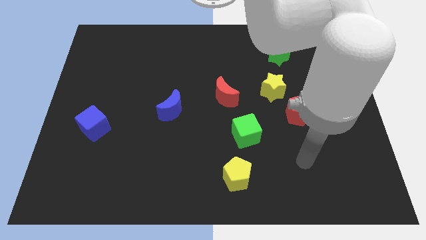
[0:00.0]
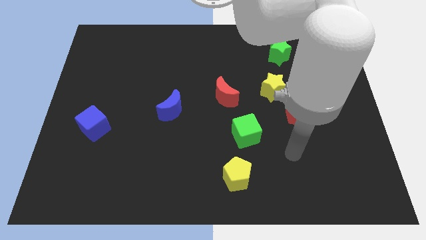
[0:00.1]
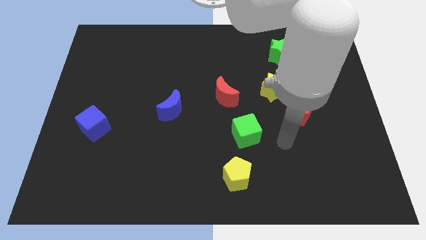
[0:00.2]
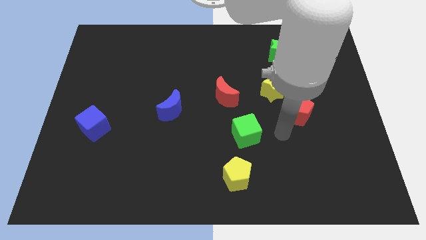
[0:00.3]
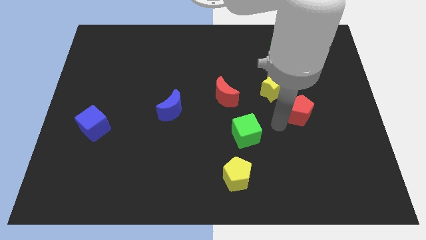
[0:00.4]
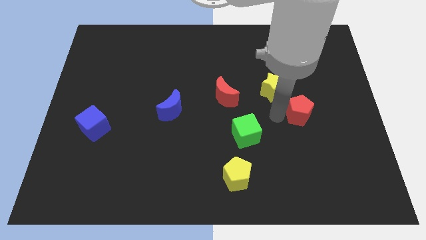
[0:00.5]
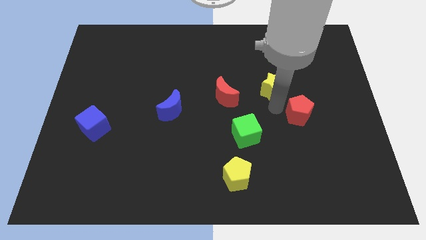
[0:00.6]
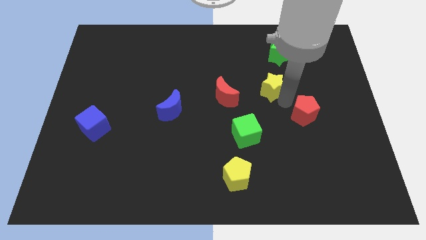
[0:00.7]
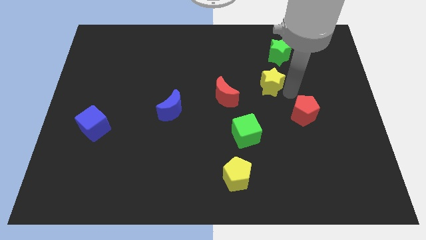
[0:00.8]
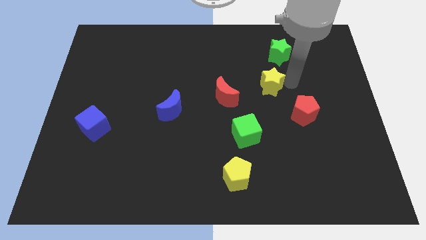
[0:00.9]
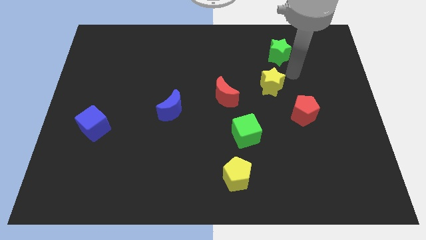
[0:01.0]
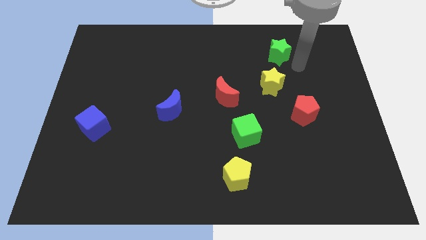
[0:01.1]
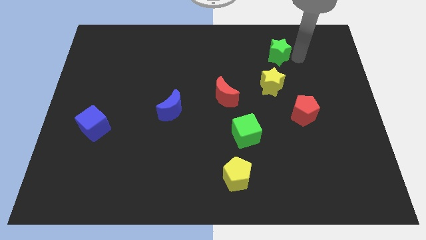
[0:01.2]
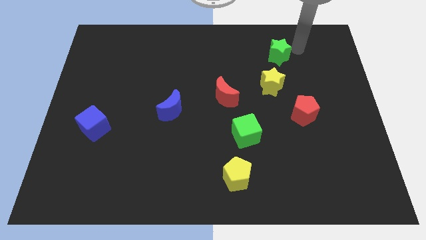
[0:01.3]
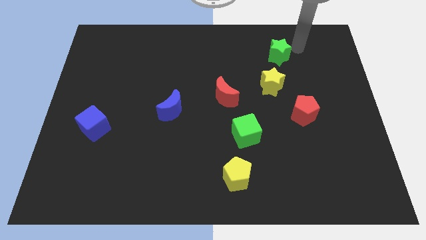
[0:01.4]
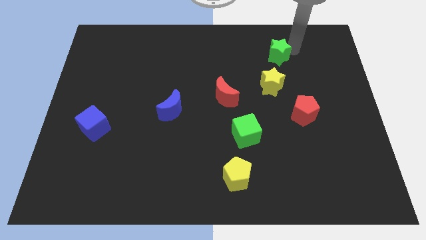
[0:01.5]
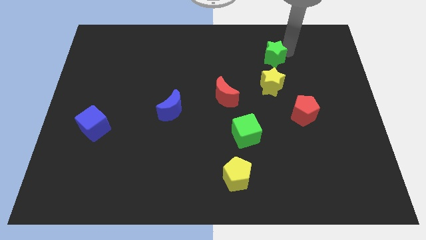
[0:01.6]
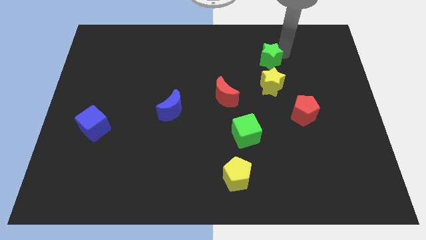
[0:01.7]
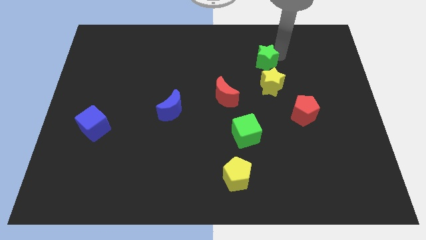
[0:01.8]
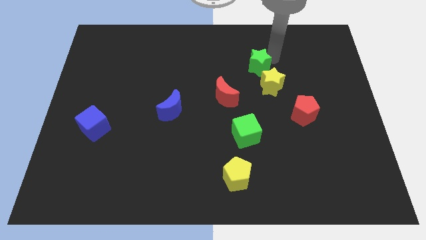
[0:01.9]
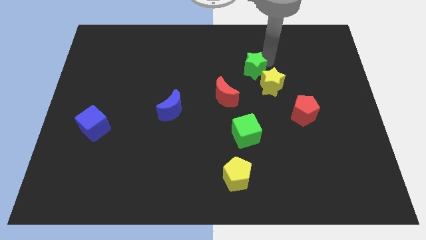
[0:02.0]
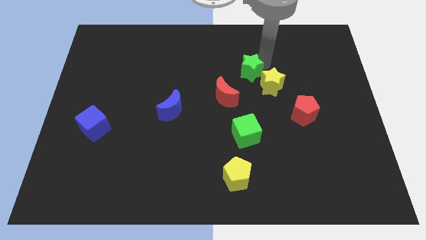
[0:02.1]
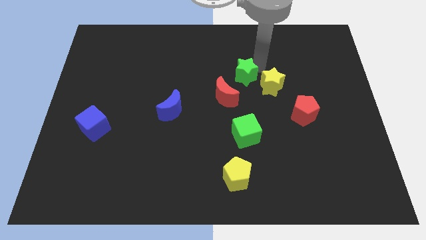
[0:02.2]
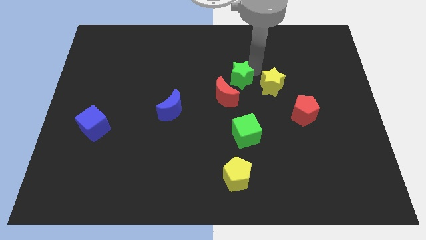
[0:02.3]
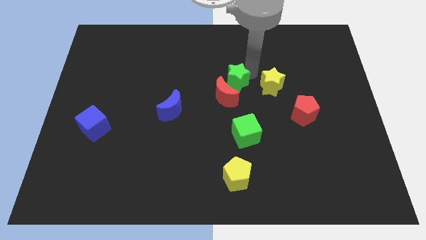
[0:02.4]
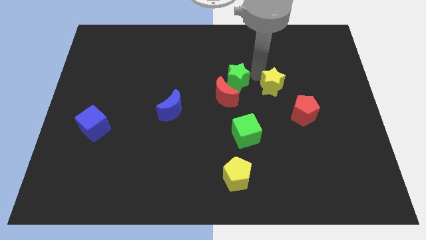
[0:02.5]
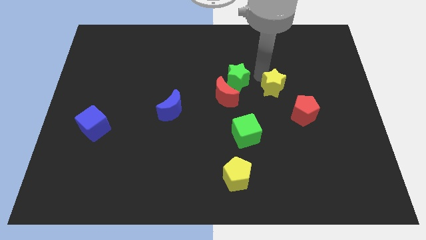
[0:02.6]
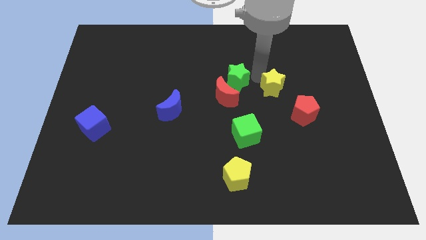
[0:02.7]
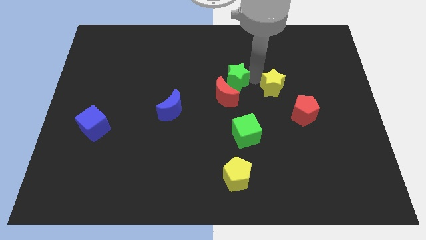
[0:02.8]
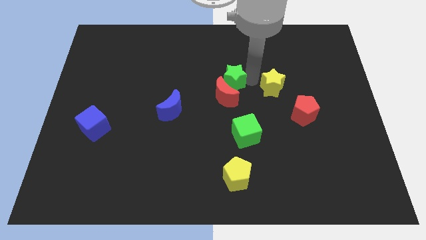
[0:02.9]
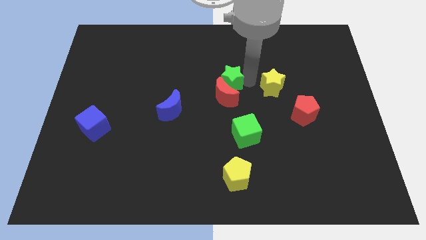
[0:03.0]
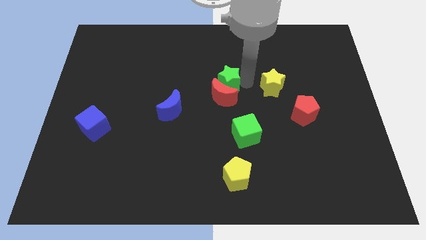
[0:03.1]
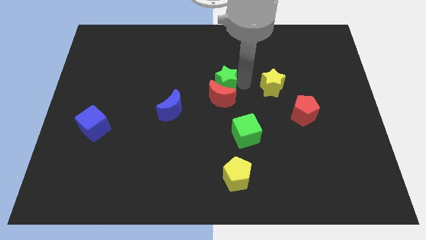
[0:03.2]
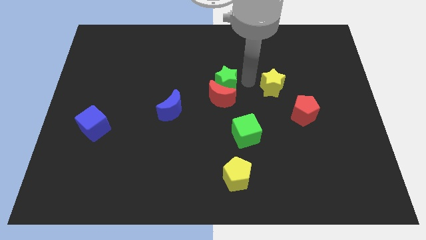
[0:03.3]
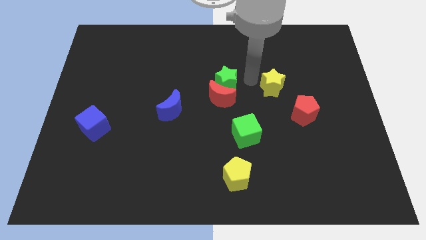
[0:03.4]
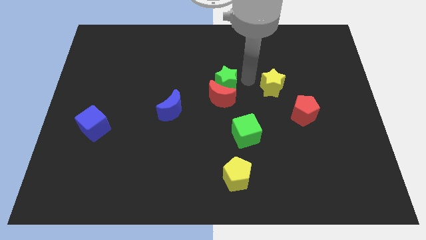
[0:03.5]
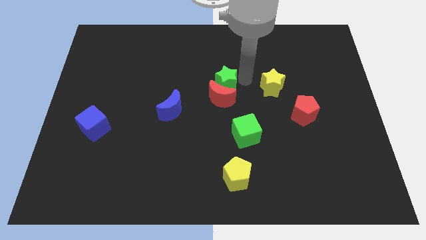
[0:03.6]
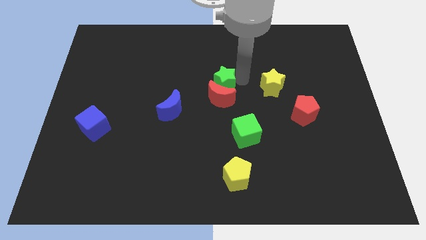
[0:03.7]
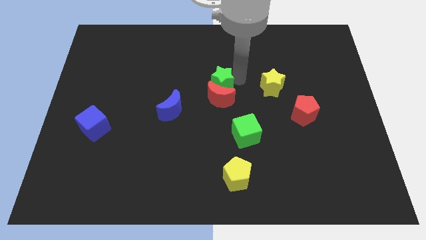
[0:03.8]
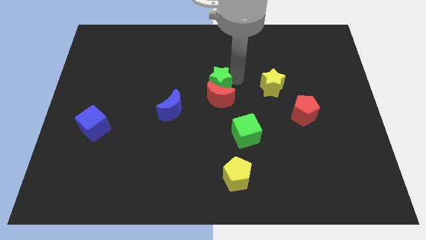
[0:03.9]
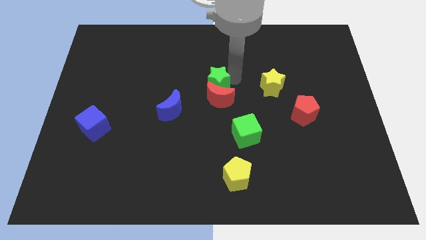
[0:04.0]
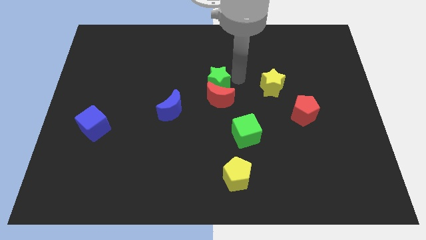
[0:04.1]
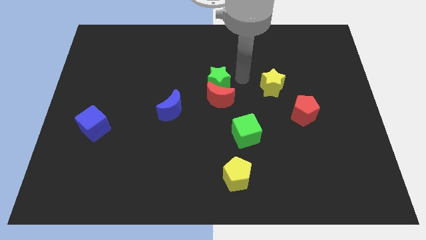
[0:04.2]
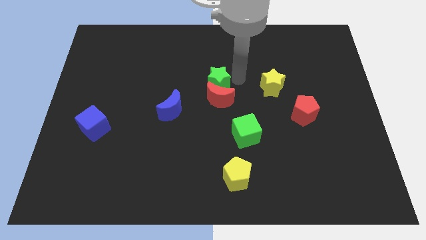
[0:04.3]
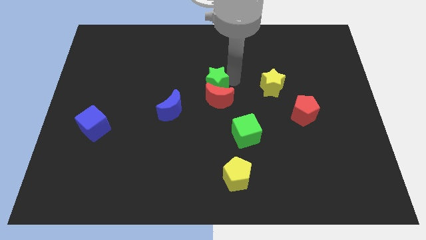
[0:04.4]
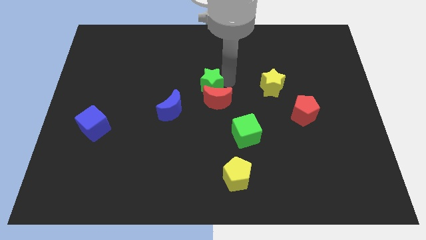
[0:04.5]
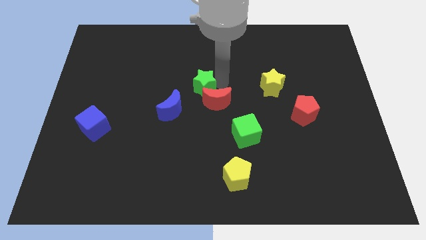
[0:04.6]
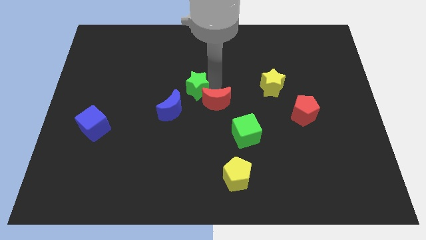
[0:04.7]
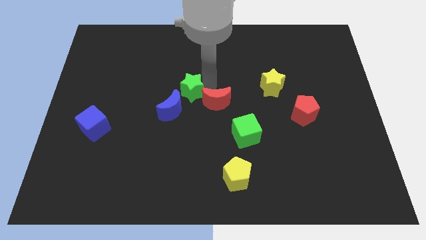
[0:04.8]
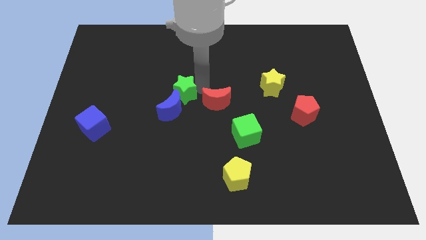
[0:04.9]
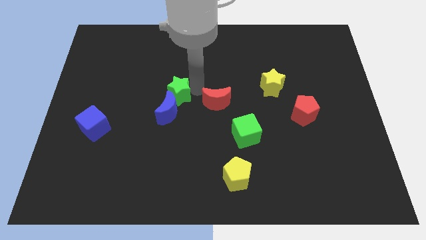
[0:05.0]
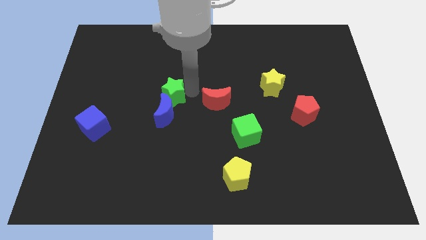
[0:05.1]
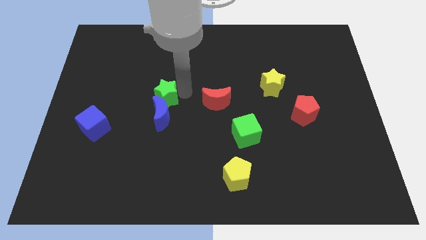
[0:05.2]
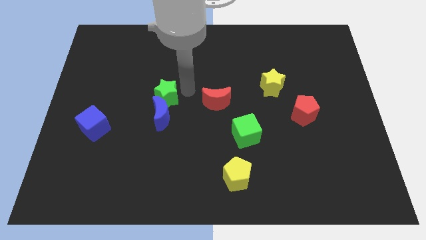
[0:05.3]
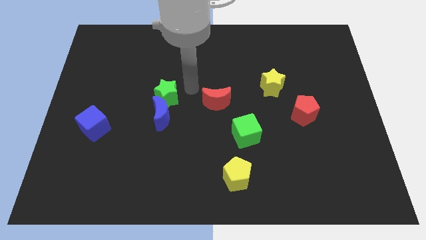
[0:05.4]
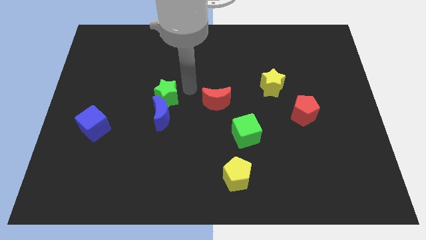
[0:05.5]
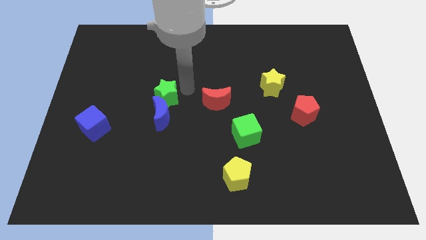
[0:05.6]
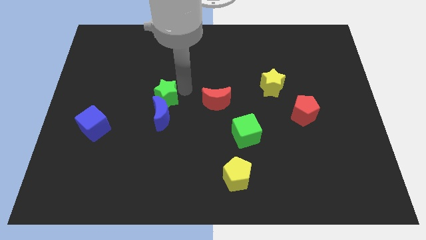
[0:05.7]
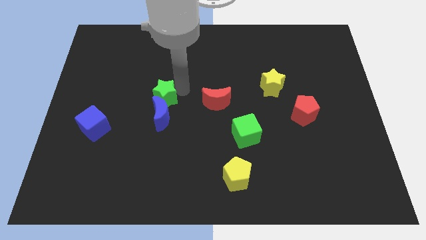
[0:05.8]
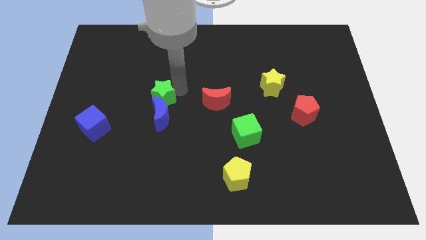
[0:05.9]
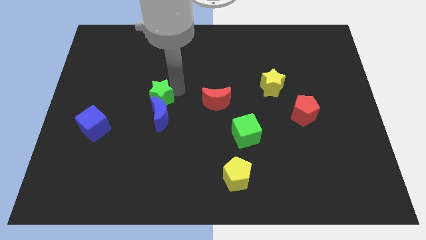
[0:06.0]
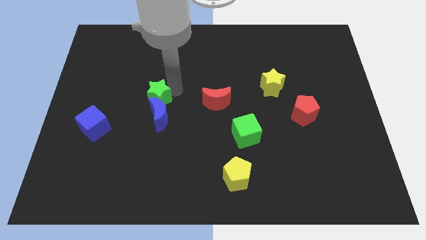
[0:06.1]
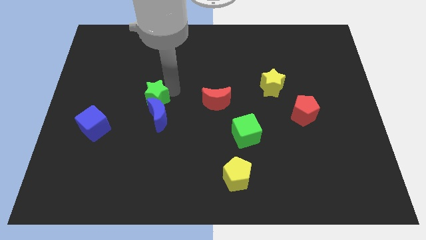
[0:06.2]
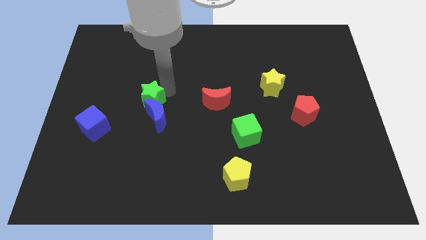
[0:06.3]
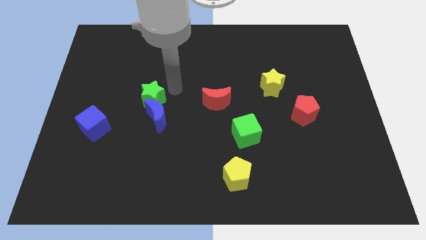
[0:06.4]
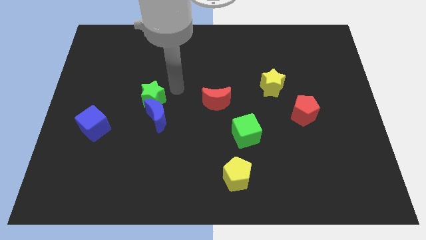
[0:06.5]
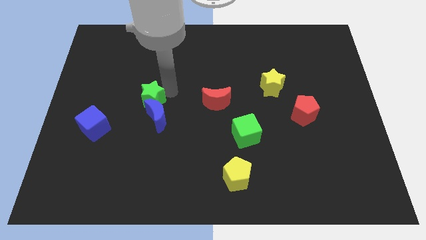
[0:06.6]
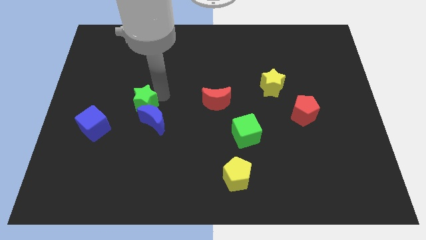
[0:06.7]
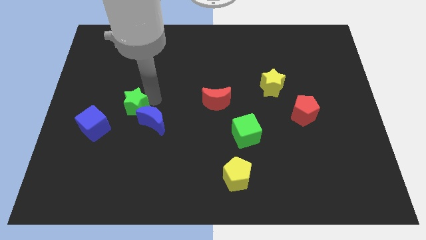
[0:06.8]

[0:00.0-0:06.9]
move the green star to the left side of the blue moon

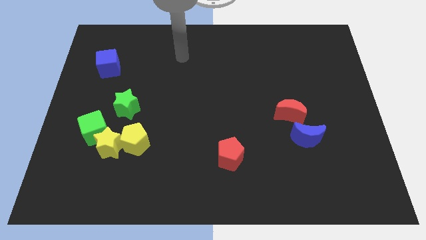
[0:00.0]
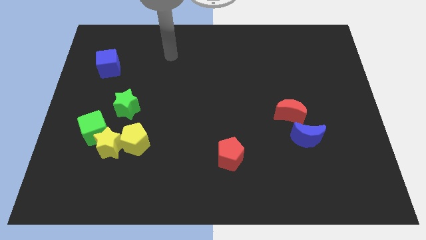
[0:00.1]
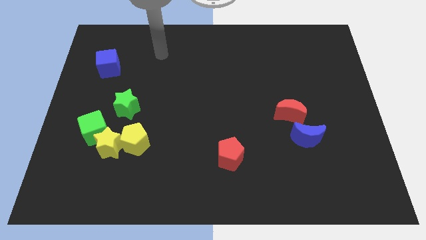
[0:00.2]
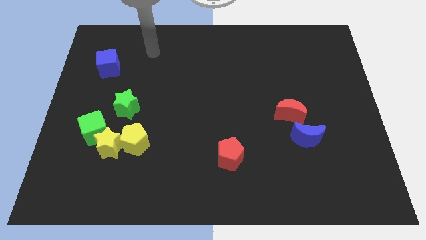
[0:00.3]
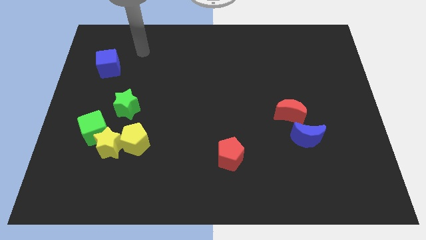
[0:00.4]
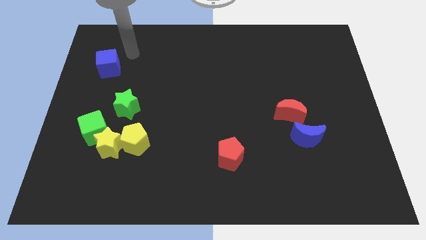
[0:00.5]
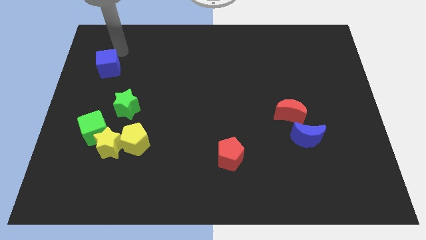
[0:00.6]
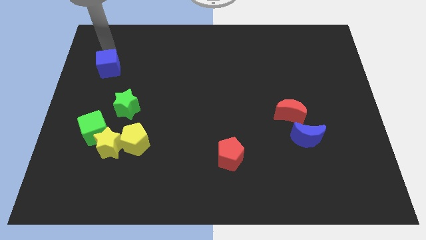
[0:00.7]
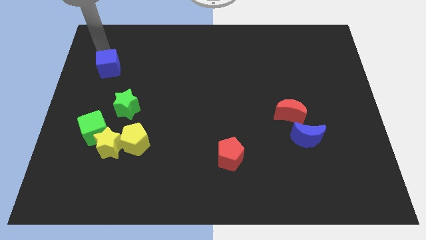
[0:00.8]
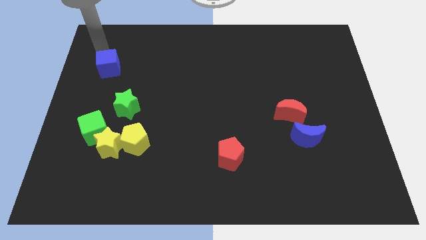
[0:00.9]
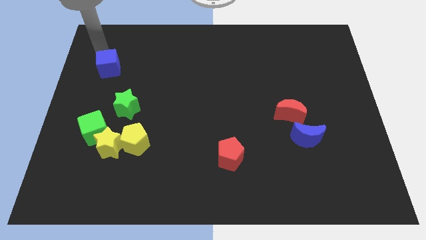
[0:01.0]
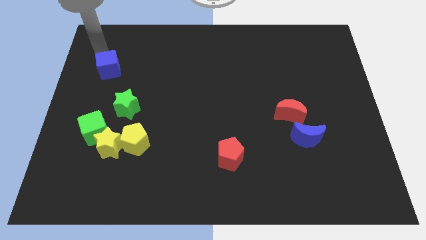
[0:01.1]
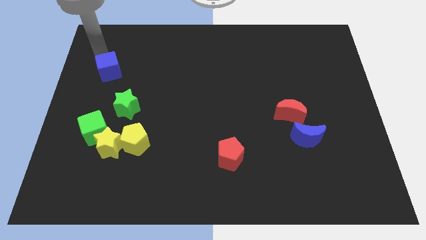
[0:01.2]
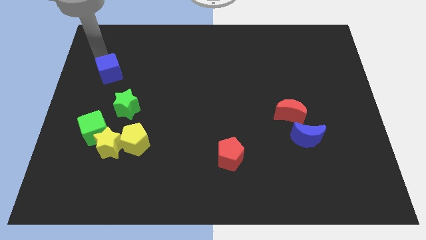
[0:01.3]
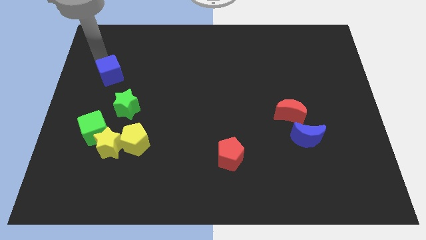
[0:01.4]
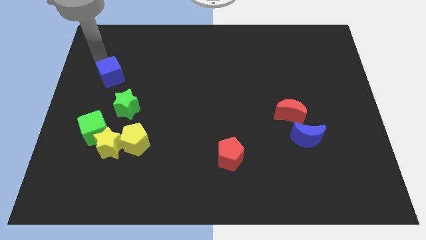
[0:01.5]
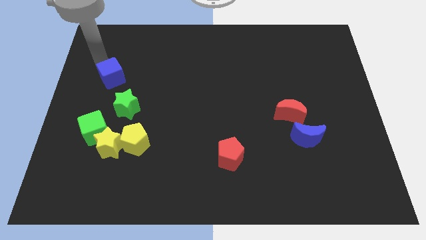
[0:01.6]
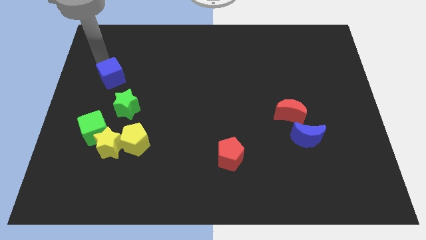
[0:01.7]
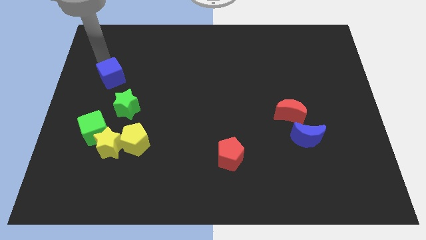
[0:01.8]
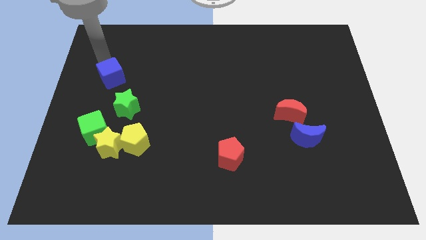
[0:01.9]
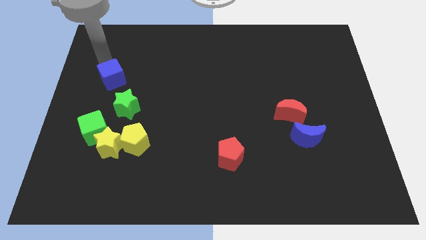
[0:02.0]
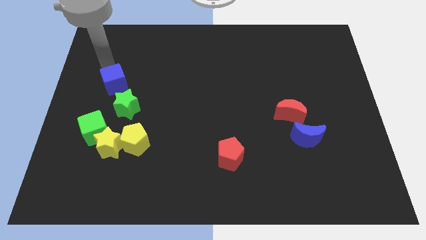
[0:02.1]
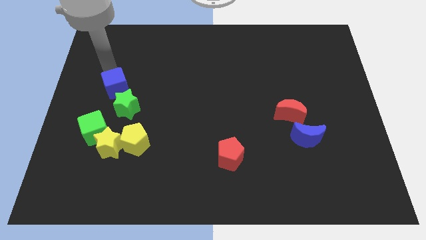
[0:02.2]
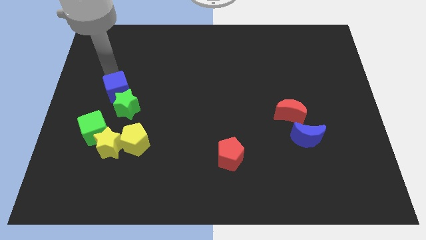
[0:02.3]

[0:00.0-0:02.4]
push the blue cube to the top of the yellow star
